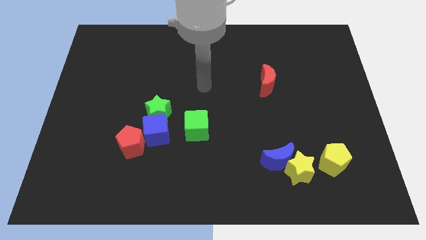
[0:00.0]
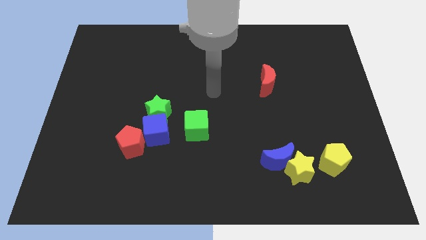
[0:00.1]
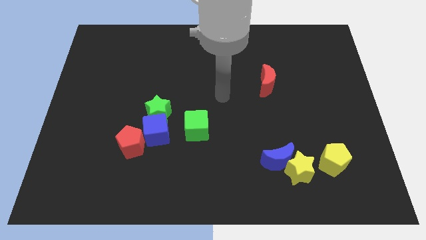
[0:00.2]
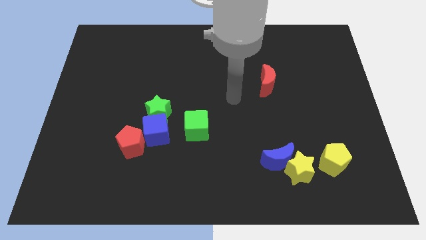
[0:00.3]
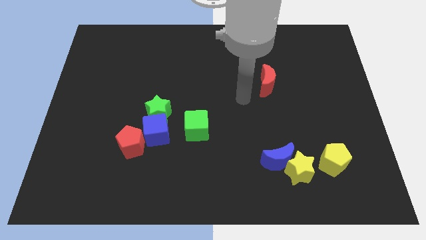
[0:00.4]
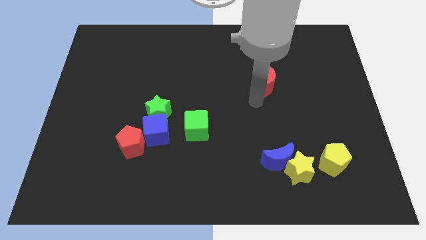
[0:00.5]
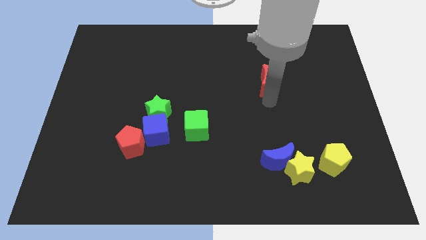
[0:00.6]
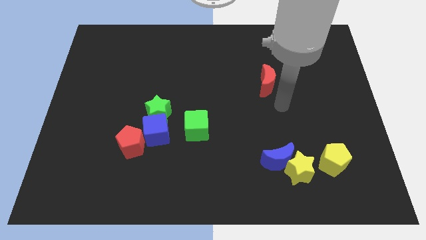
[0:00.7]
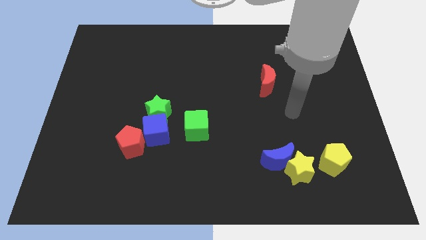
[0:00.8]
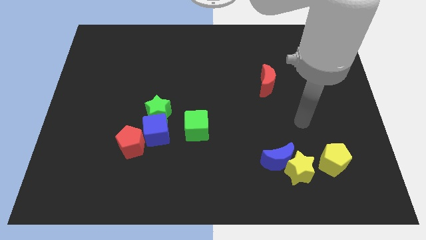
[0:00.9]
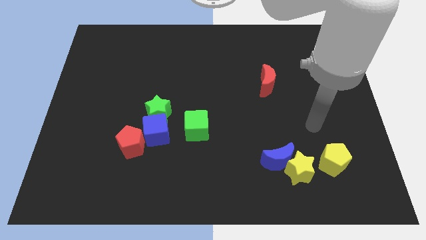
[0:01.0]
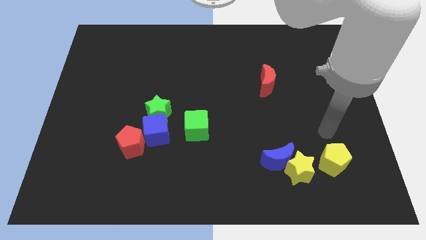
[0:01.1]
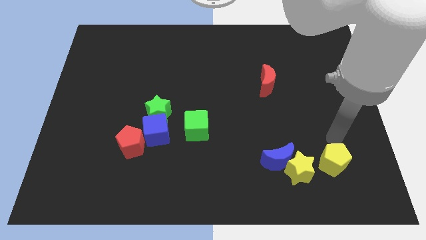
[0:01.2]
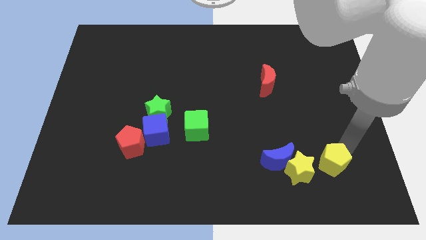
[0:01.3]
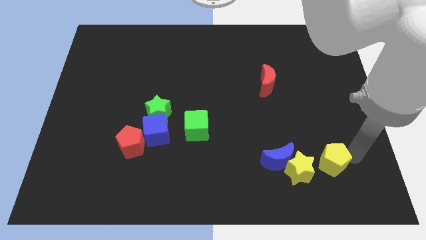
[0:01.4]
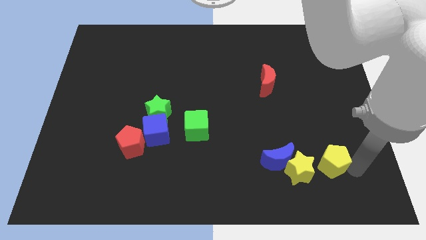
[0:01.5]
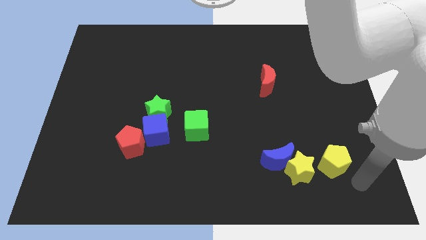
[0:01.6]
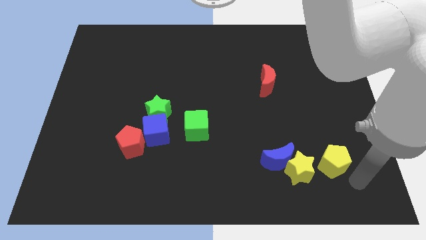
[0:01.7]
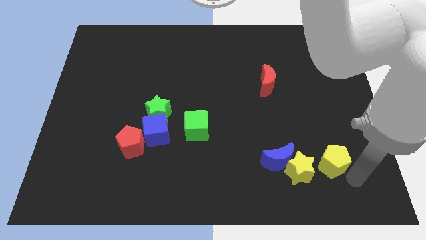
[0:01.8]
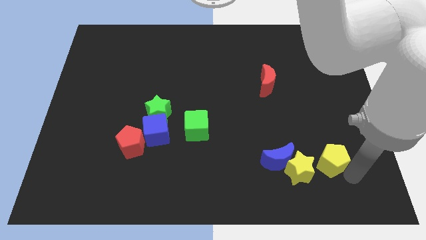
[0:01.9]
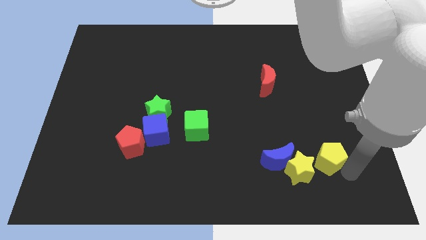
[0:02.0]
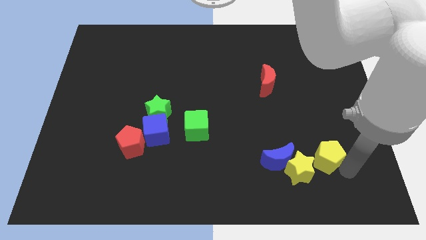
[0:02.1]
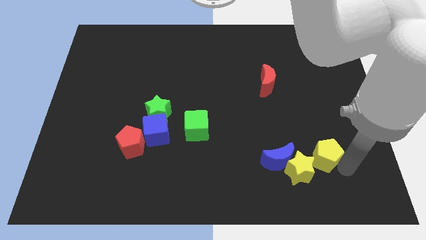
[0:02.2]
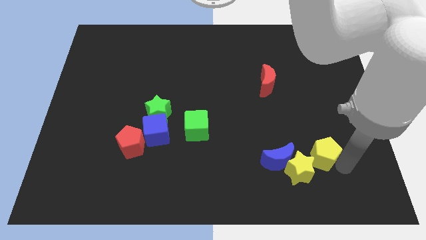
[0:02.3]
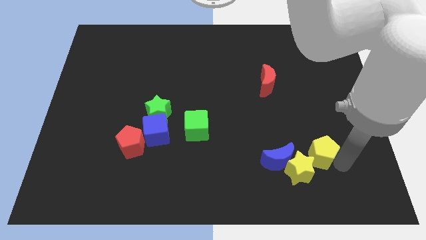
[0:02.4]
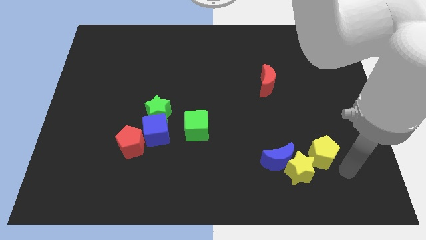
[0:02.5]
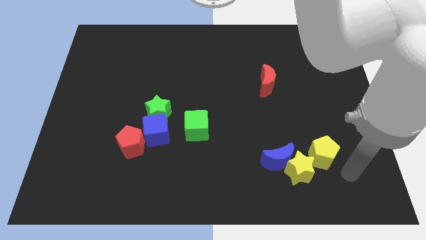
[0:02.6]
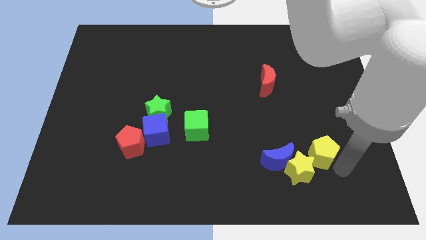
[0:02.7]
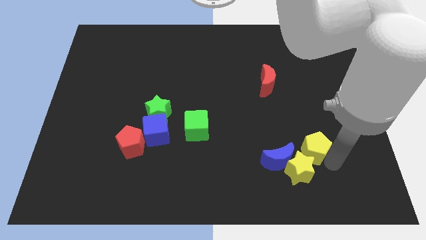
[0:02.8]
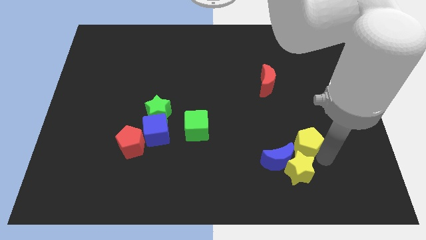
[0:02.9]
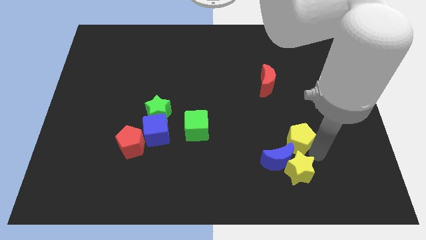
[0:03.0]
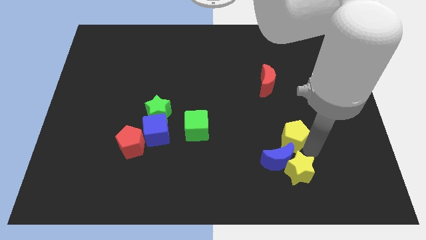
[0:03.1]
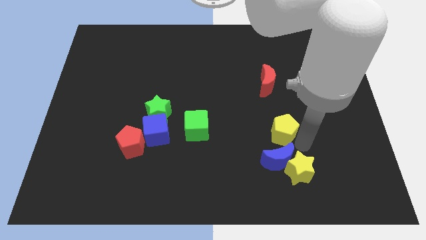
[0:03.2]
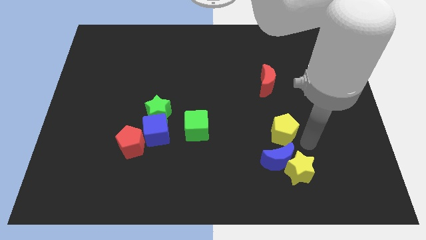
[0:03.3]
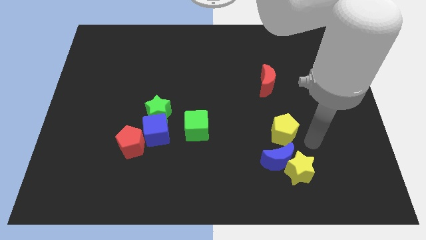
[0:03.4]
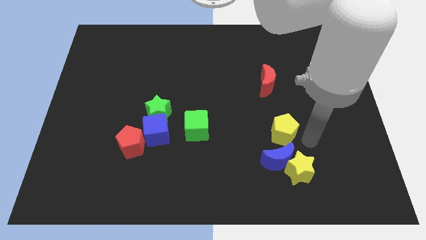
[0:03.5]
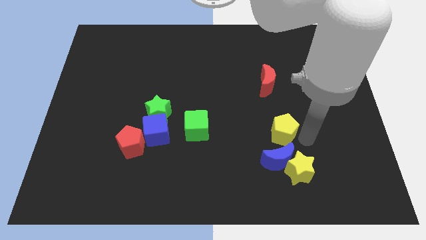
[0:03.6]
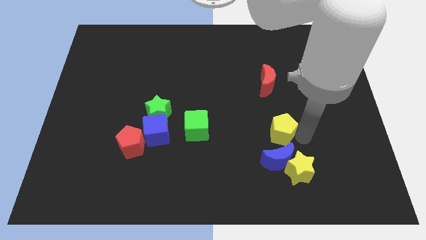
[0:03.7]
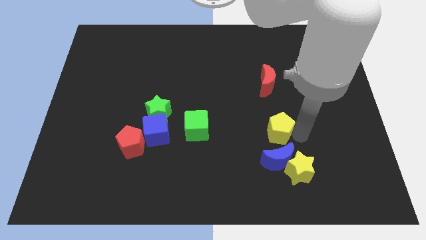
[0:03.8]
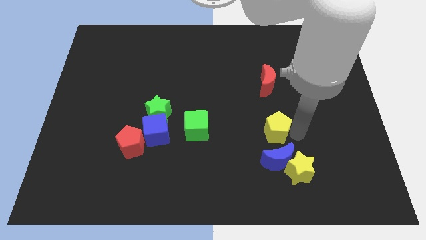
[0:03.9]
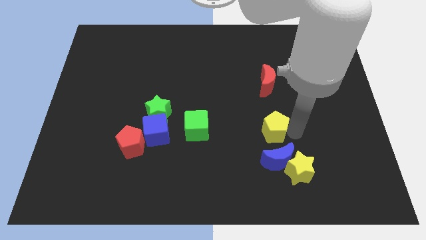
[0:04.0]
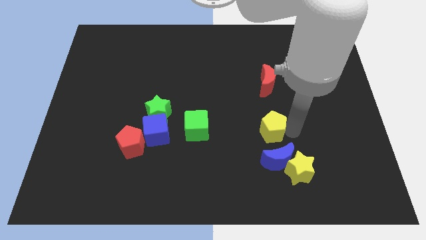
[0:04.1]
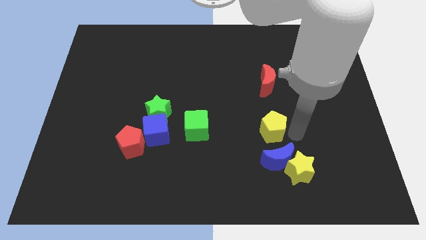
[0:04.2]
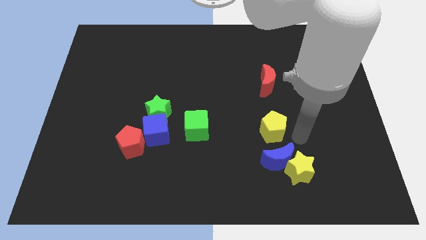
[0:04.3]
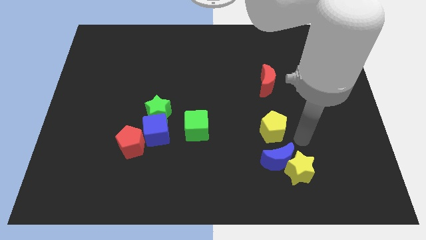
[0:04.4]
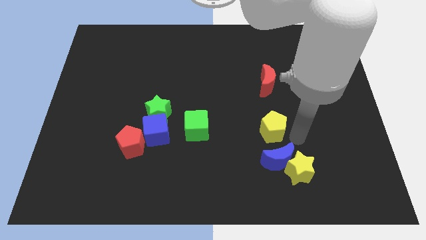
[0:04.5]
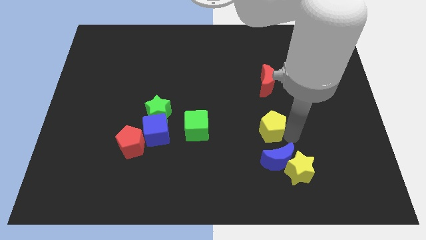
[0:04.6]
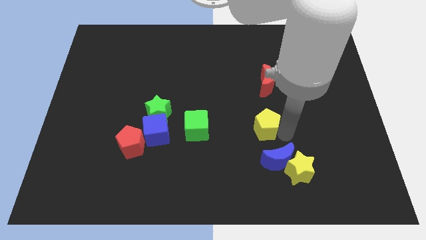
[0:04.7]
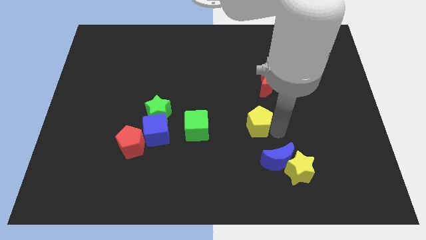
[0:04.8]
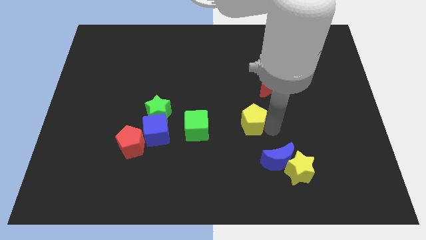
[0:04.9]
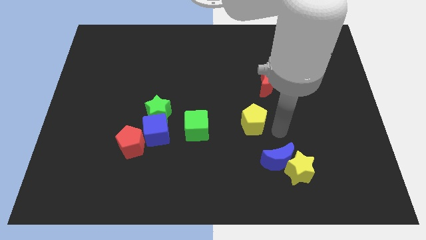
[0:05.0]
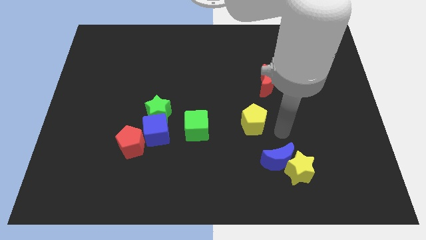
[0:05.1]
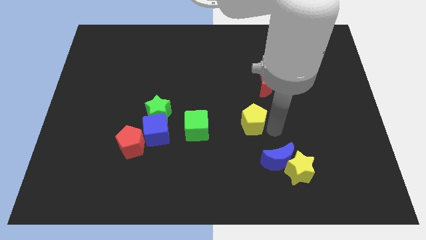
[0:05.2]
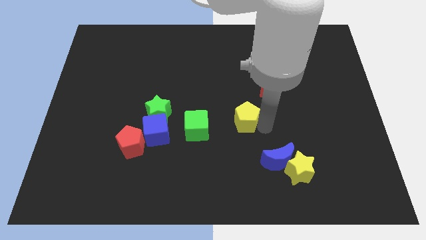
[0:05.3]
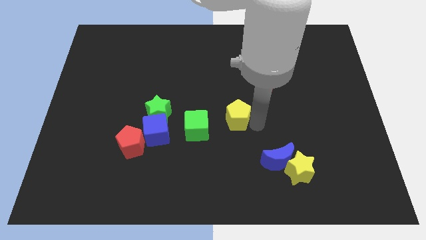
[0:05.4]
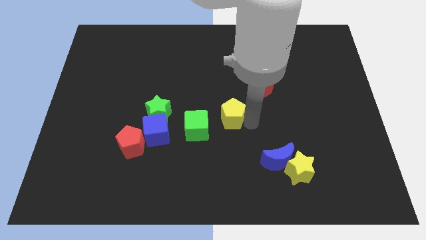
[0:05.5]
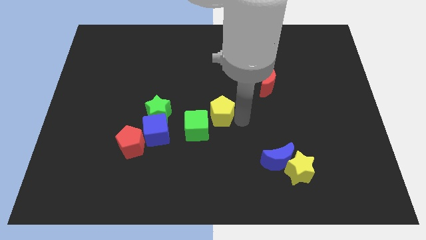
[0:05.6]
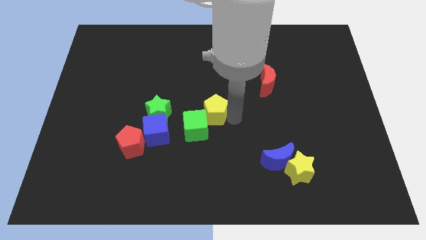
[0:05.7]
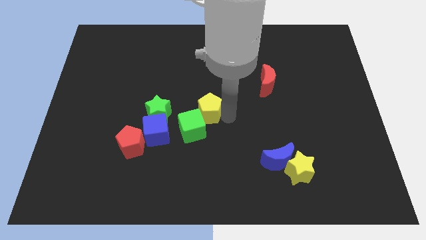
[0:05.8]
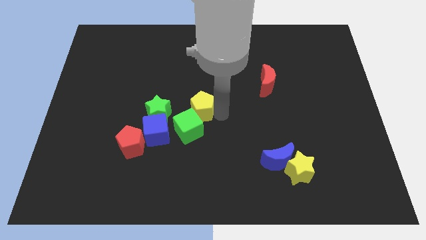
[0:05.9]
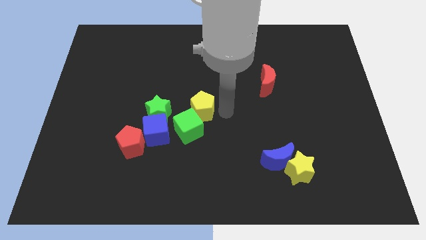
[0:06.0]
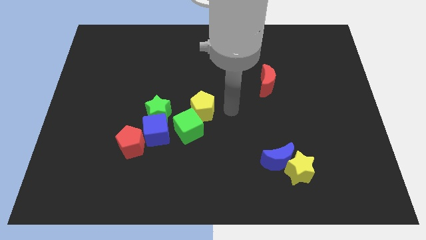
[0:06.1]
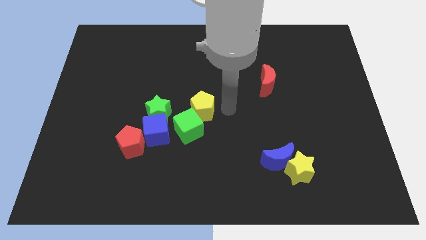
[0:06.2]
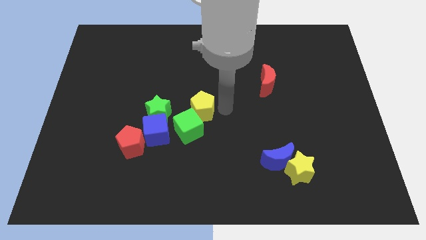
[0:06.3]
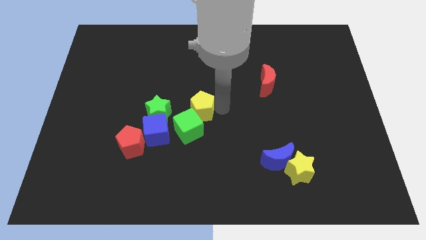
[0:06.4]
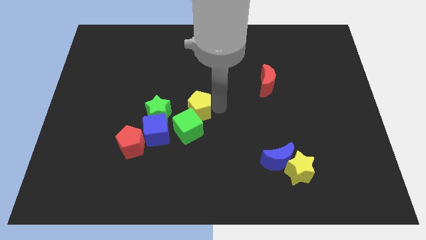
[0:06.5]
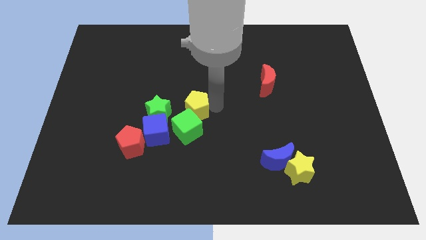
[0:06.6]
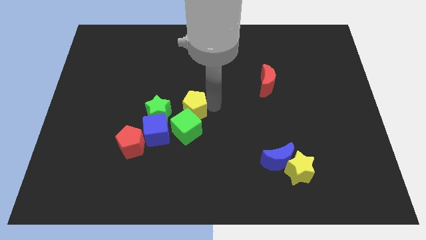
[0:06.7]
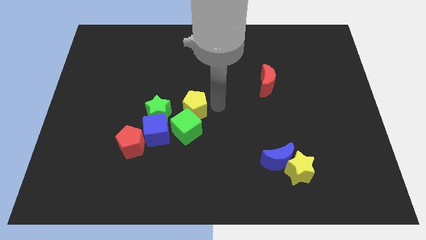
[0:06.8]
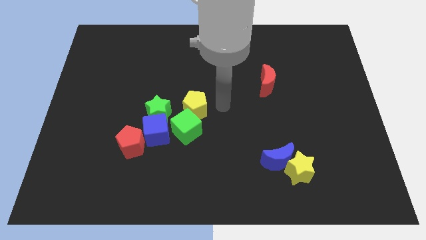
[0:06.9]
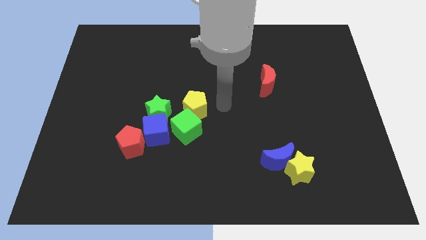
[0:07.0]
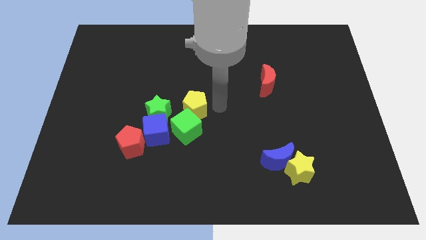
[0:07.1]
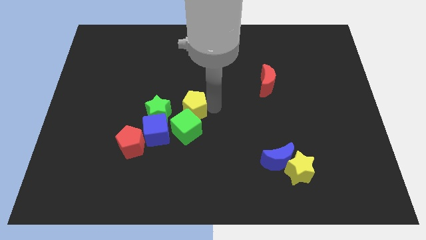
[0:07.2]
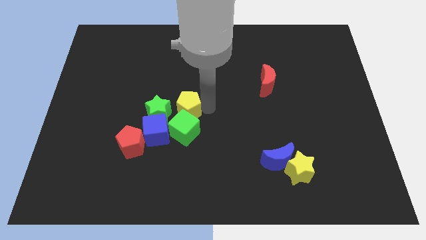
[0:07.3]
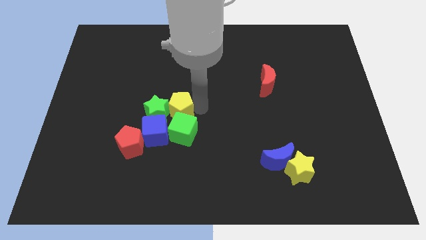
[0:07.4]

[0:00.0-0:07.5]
slide the yellow pentagon towards the green star
